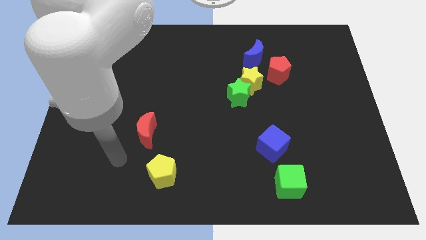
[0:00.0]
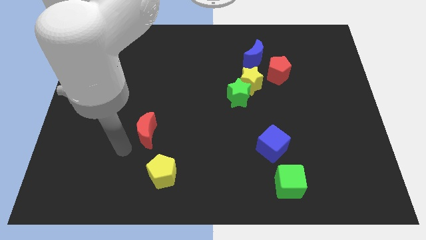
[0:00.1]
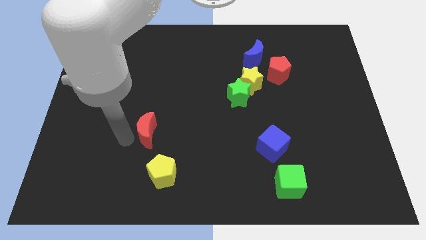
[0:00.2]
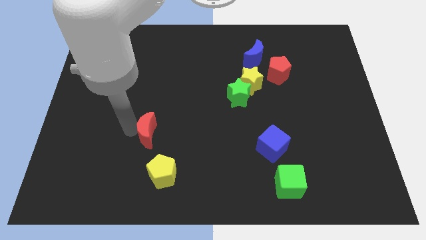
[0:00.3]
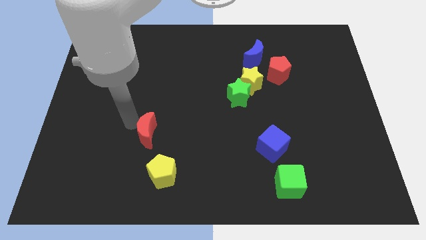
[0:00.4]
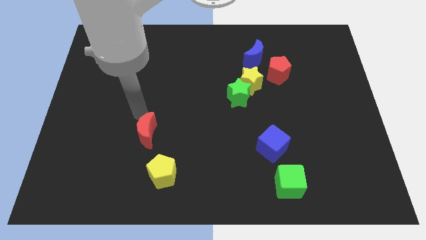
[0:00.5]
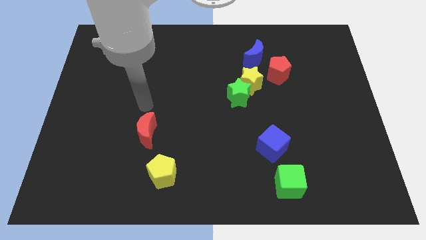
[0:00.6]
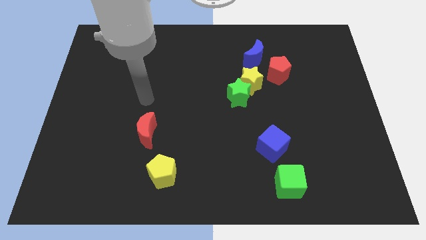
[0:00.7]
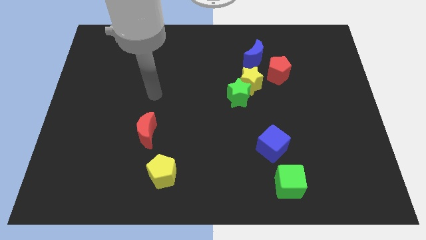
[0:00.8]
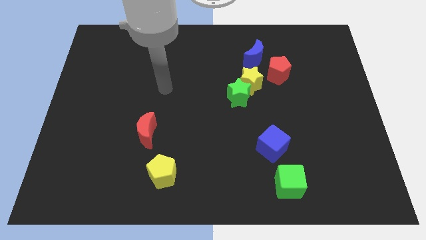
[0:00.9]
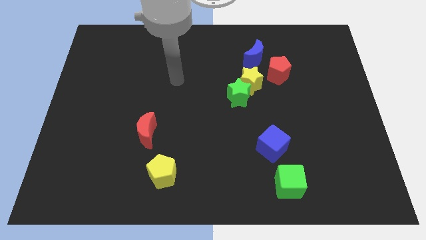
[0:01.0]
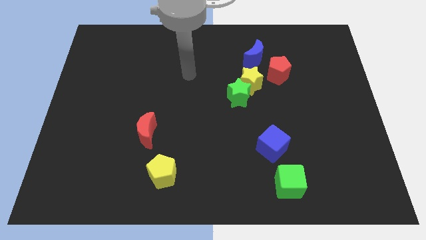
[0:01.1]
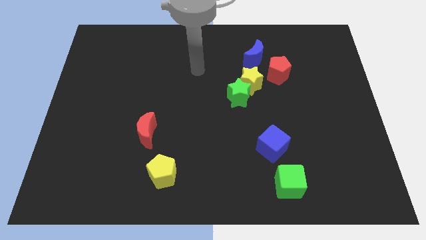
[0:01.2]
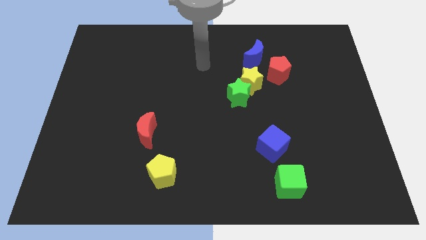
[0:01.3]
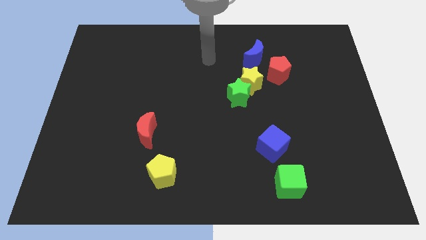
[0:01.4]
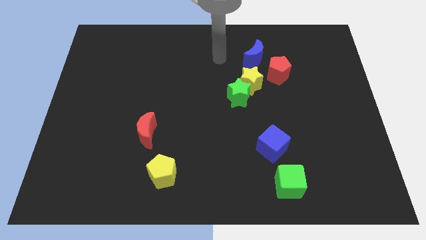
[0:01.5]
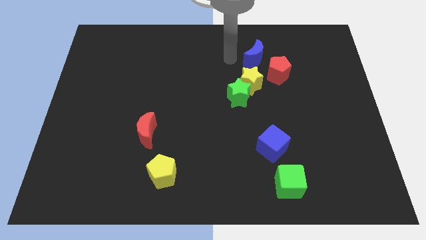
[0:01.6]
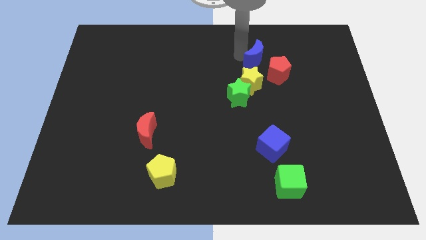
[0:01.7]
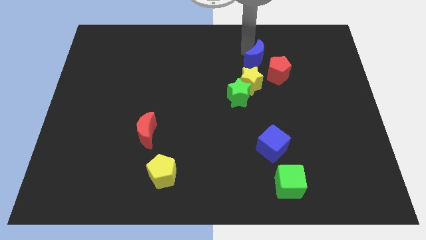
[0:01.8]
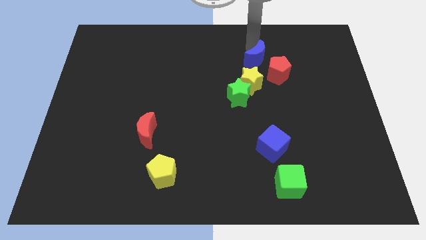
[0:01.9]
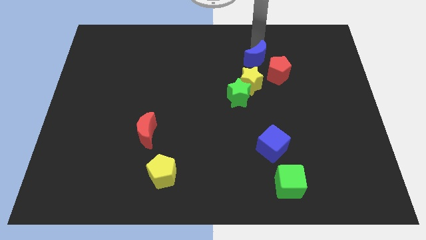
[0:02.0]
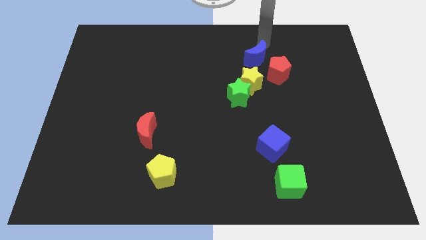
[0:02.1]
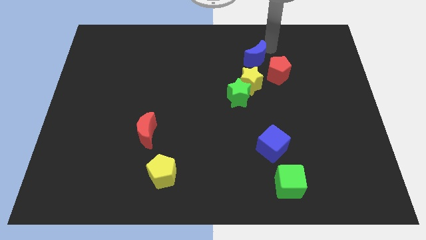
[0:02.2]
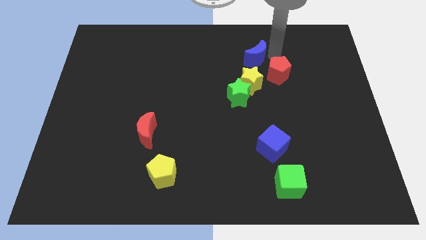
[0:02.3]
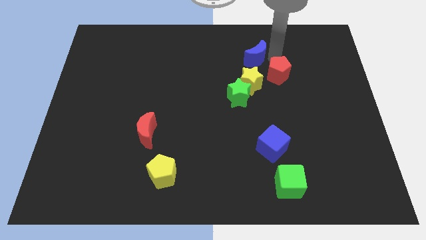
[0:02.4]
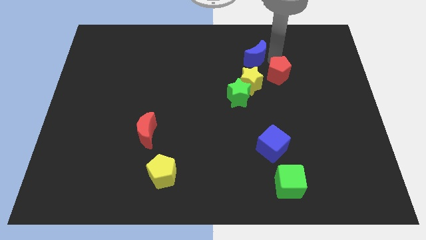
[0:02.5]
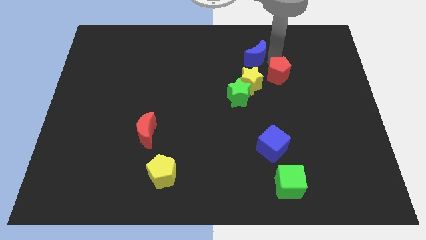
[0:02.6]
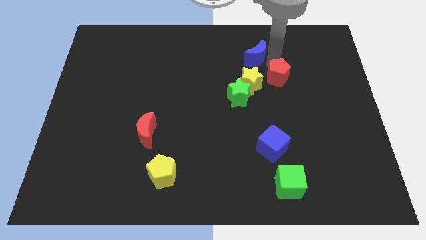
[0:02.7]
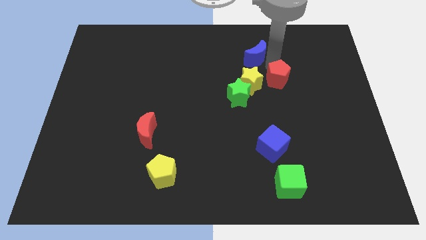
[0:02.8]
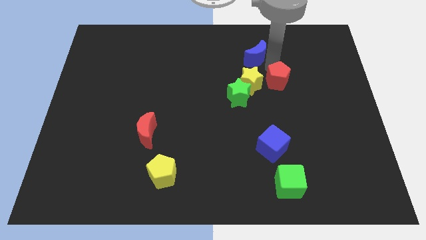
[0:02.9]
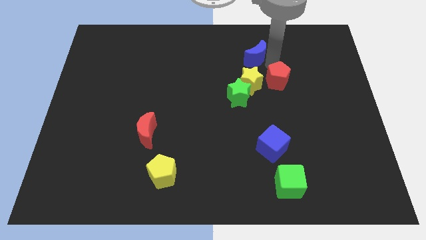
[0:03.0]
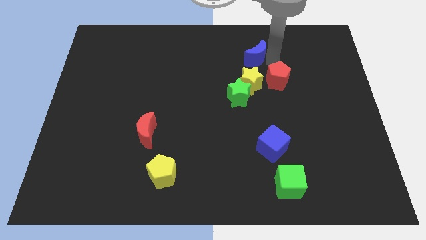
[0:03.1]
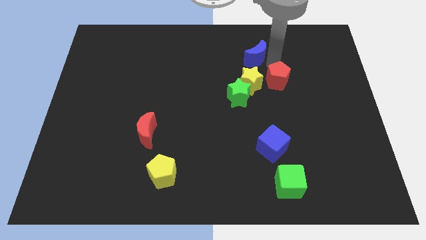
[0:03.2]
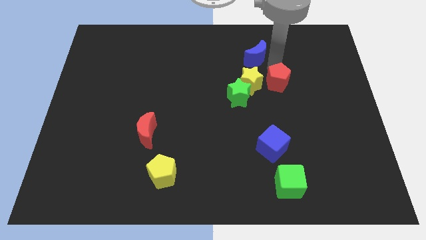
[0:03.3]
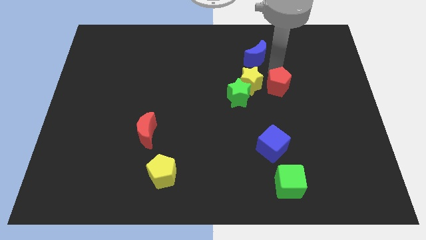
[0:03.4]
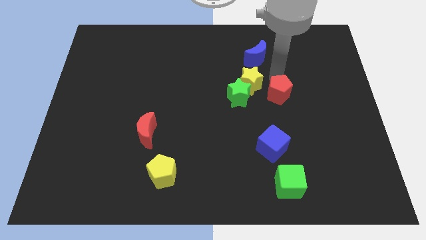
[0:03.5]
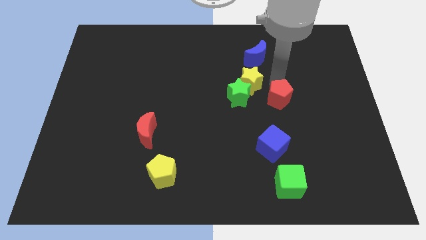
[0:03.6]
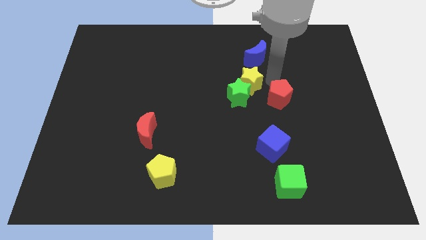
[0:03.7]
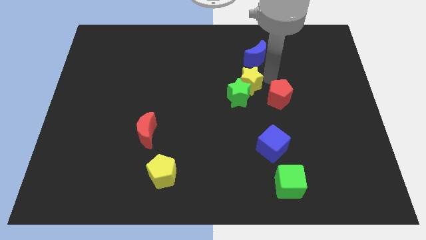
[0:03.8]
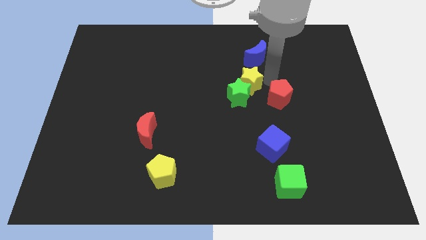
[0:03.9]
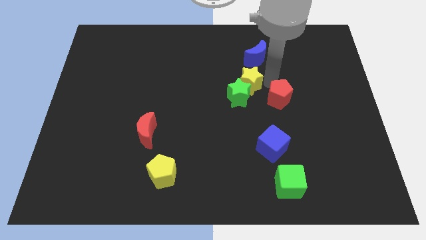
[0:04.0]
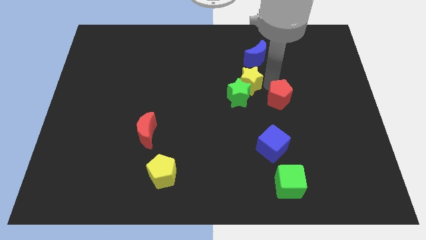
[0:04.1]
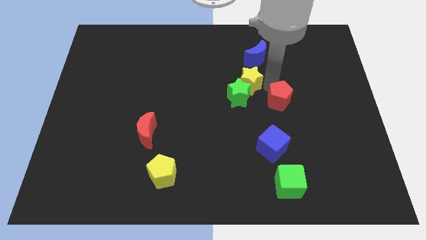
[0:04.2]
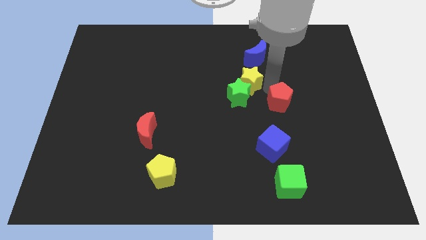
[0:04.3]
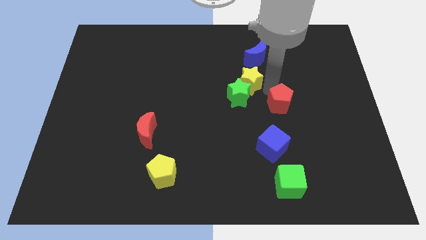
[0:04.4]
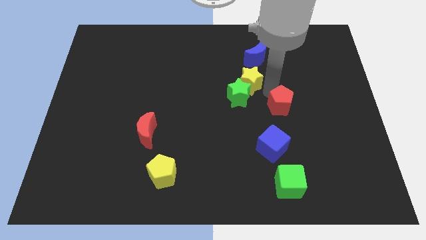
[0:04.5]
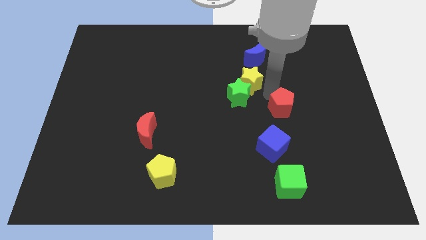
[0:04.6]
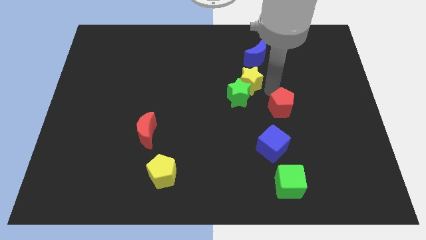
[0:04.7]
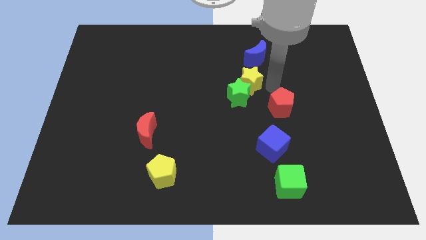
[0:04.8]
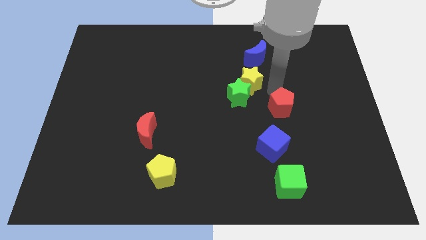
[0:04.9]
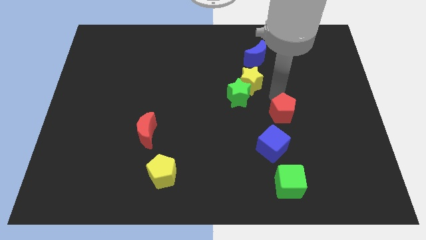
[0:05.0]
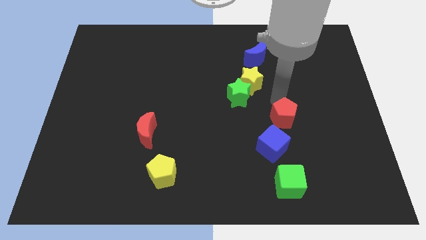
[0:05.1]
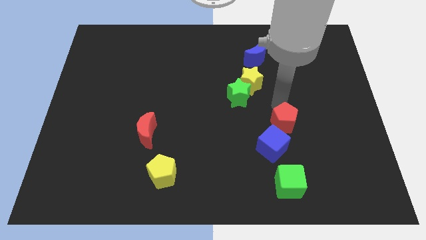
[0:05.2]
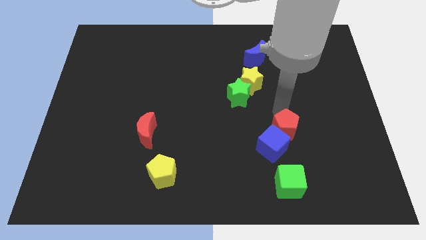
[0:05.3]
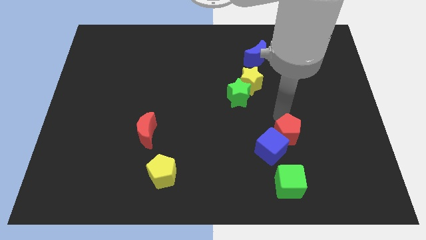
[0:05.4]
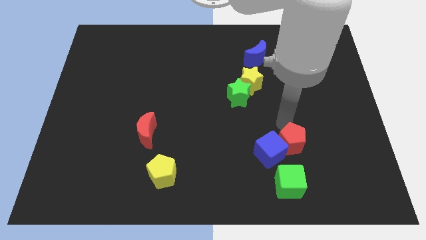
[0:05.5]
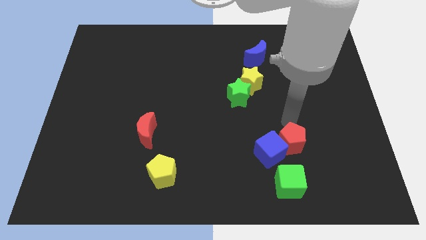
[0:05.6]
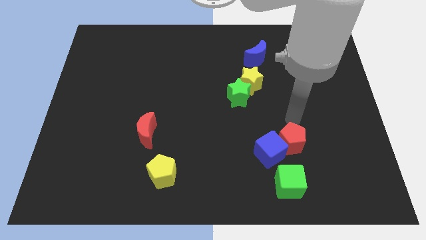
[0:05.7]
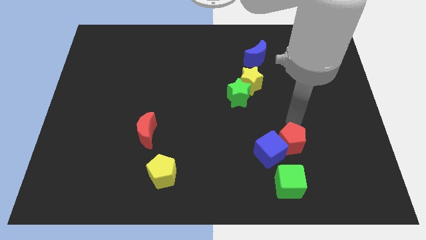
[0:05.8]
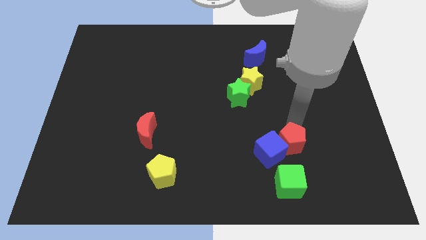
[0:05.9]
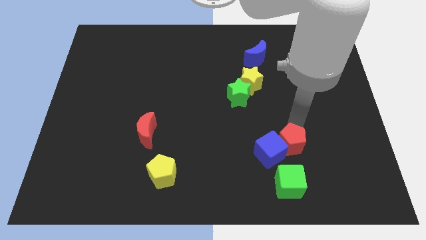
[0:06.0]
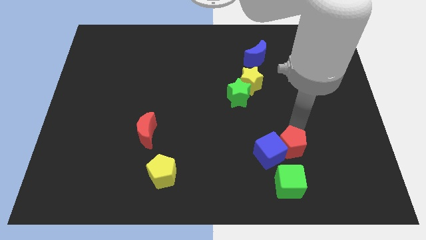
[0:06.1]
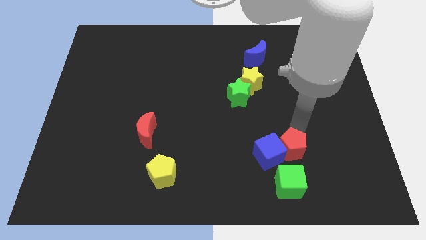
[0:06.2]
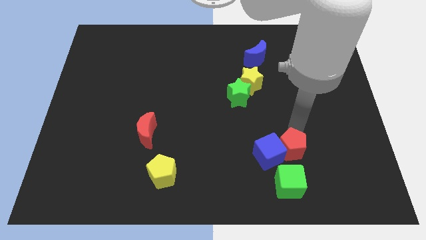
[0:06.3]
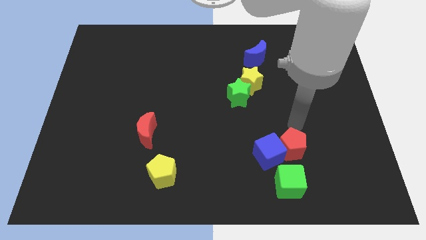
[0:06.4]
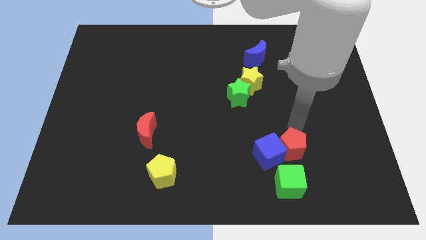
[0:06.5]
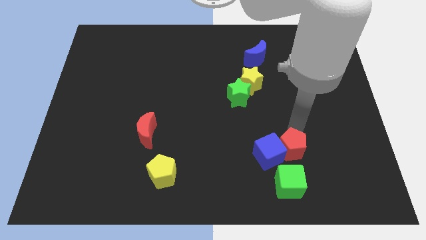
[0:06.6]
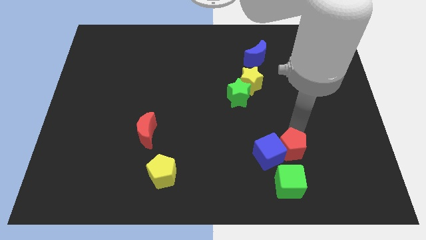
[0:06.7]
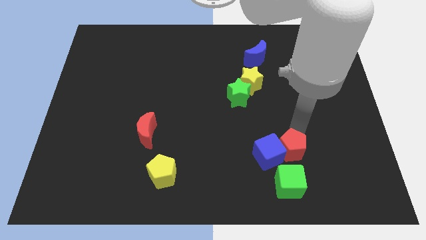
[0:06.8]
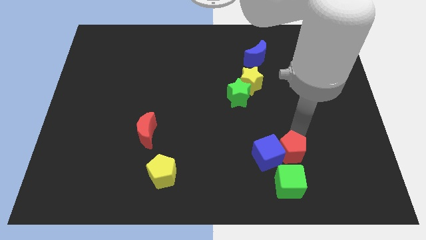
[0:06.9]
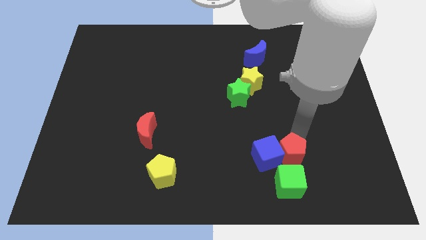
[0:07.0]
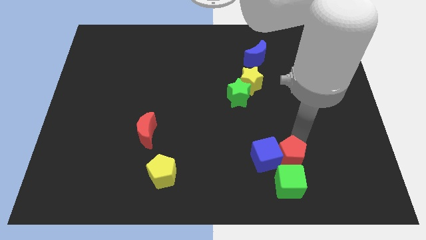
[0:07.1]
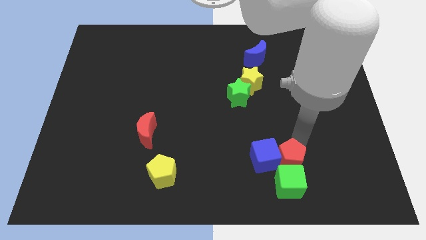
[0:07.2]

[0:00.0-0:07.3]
move the red pentagon towards the green cube

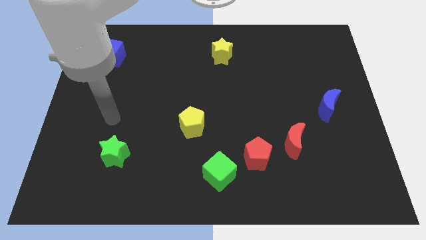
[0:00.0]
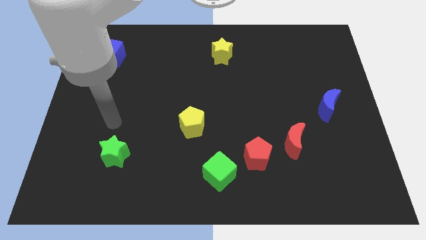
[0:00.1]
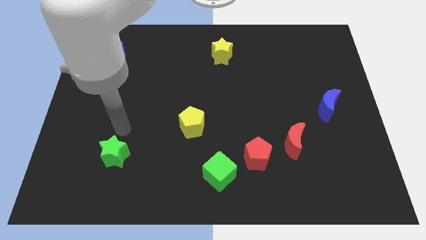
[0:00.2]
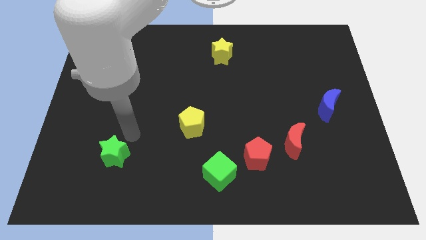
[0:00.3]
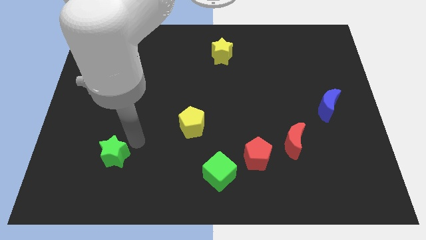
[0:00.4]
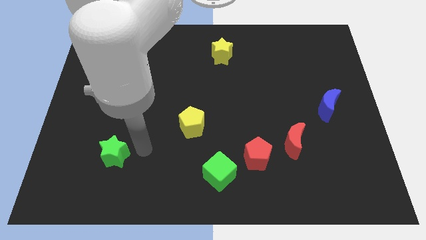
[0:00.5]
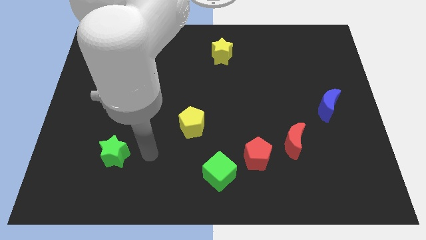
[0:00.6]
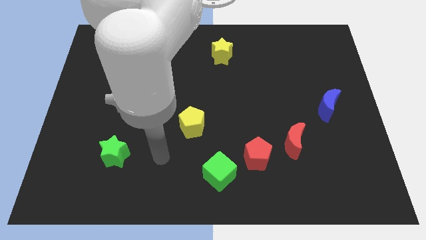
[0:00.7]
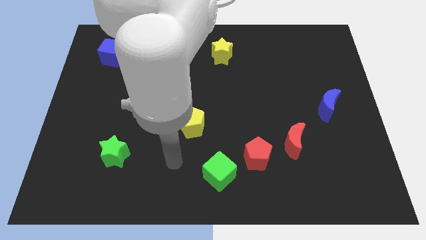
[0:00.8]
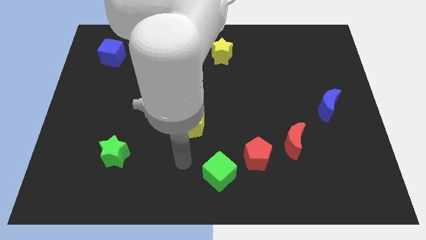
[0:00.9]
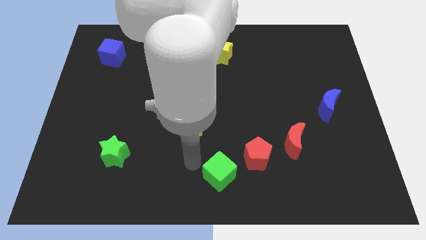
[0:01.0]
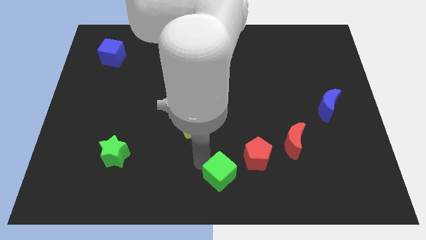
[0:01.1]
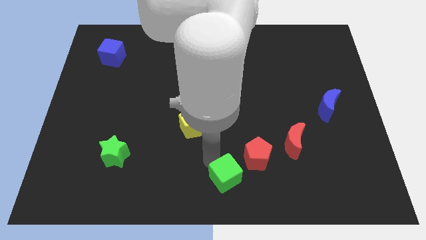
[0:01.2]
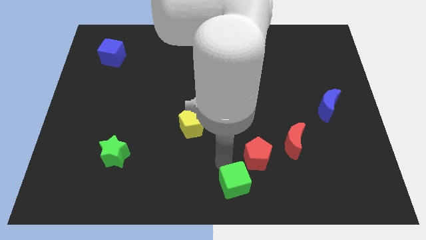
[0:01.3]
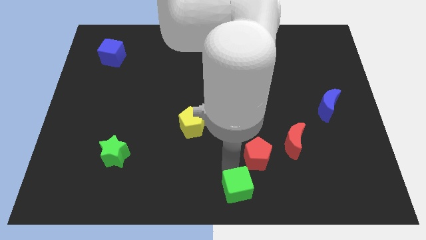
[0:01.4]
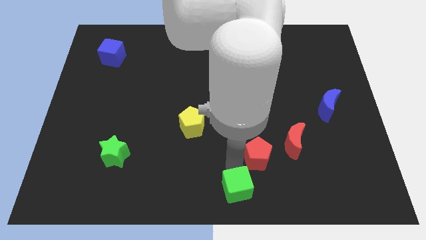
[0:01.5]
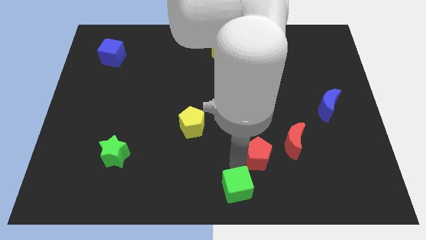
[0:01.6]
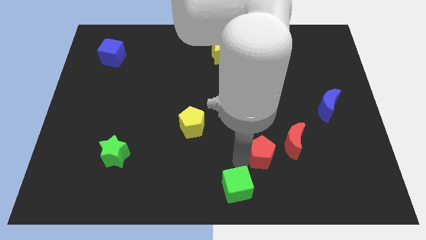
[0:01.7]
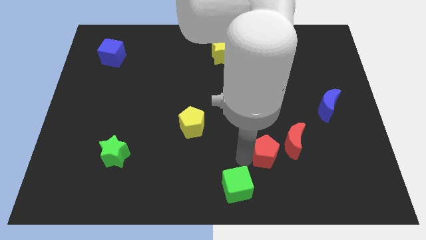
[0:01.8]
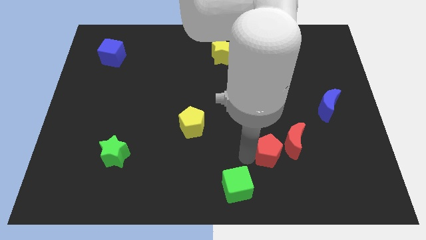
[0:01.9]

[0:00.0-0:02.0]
move the red pentagon next to the red moon
